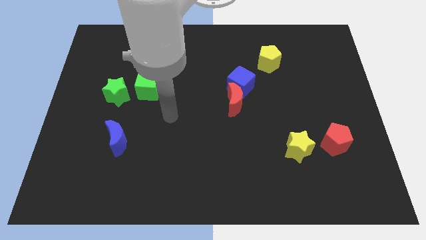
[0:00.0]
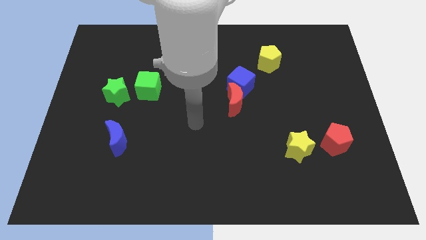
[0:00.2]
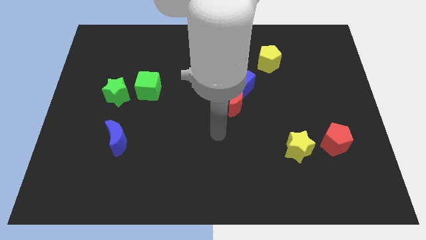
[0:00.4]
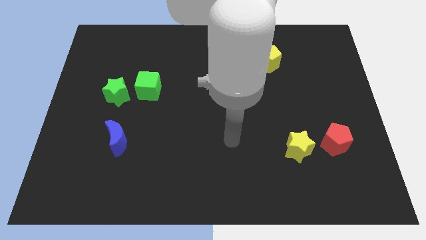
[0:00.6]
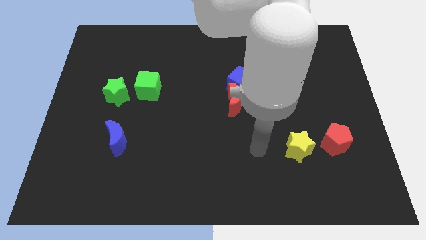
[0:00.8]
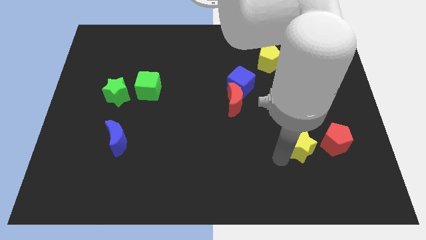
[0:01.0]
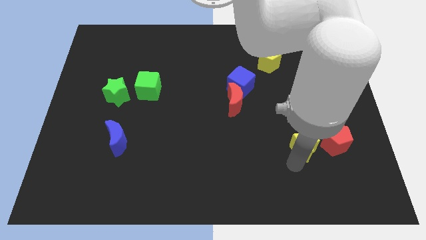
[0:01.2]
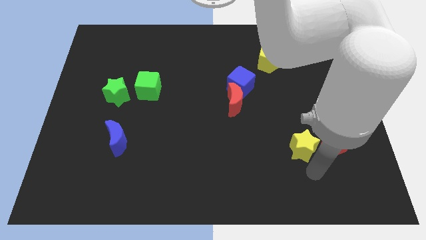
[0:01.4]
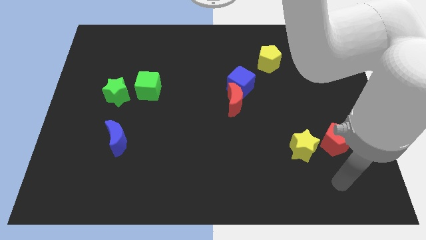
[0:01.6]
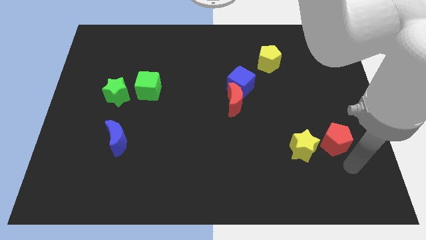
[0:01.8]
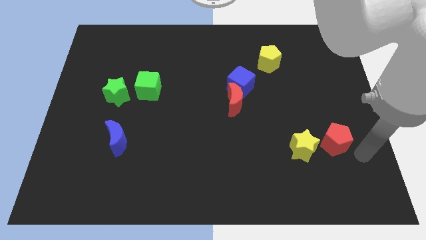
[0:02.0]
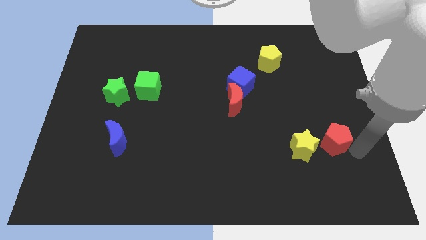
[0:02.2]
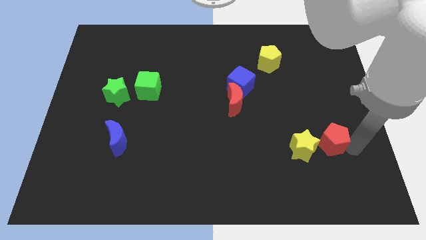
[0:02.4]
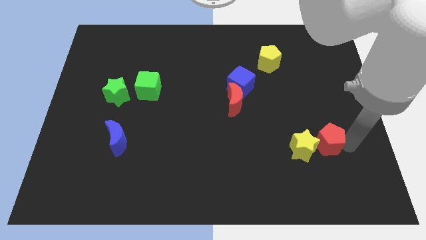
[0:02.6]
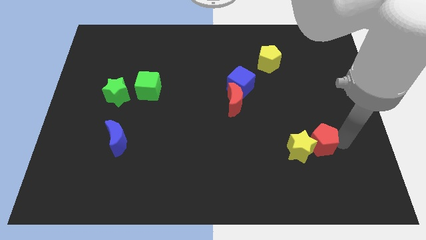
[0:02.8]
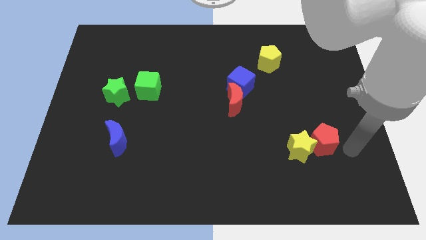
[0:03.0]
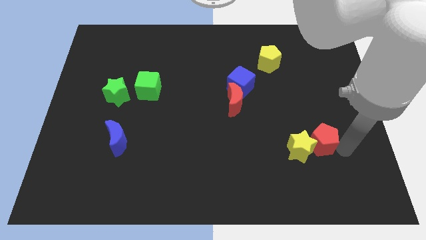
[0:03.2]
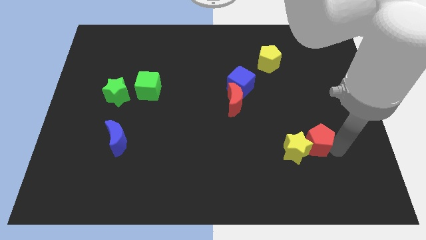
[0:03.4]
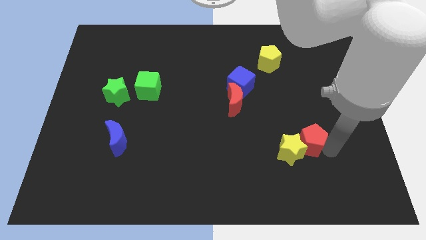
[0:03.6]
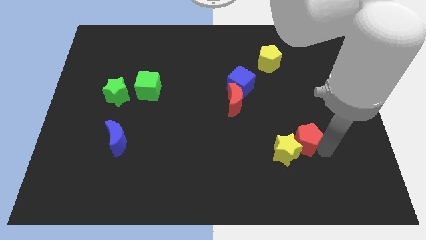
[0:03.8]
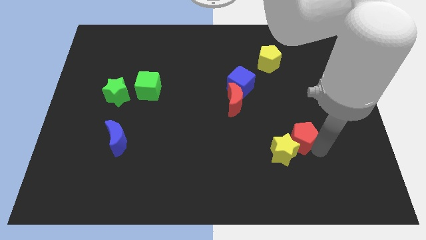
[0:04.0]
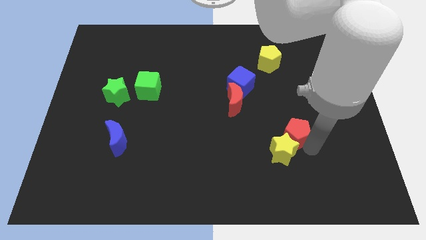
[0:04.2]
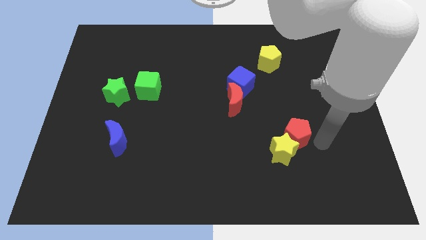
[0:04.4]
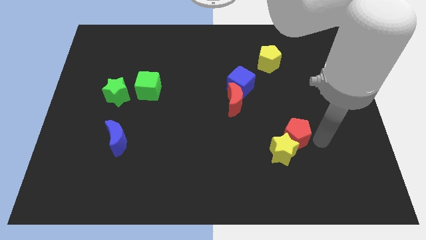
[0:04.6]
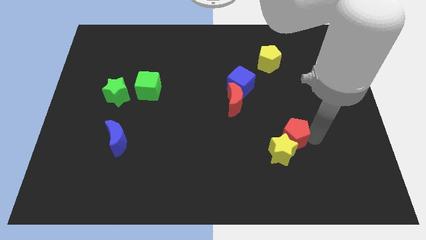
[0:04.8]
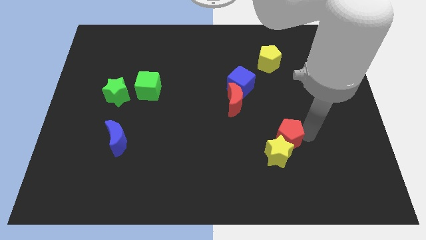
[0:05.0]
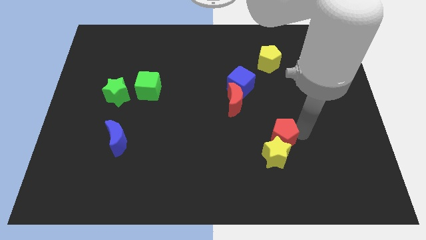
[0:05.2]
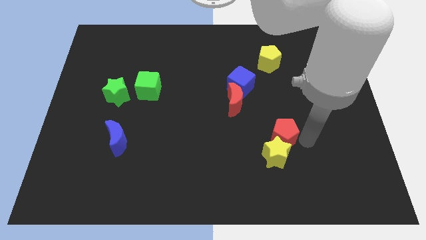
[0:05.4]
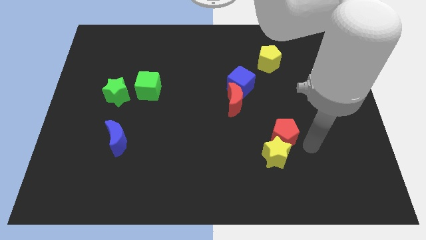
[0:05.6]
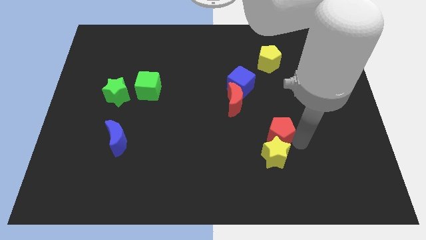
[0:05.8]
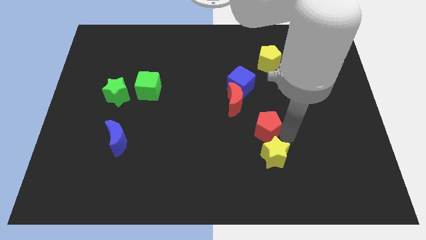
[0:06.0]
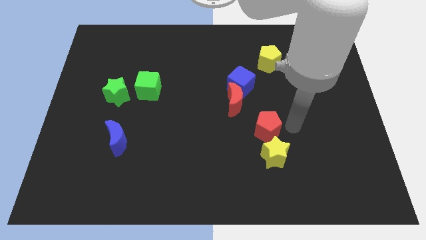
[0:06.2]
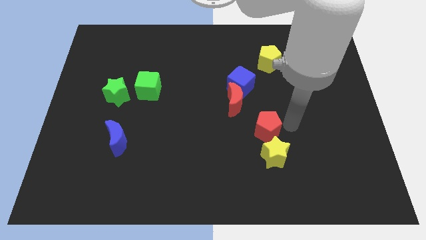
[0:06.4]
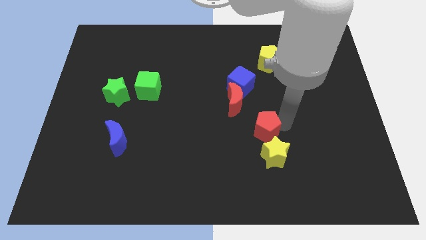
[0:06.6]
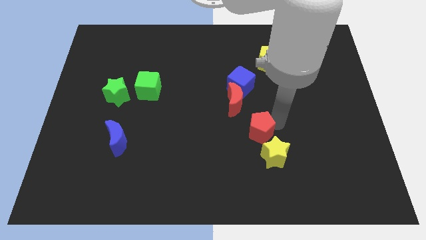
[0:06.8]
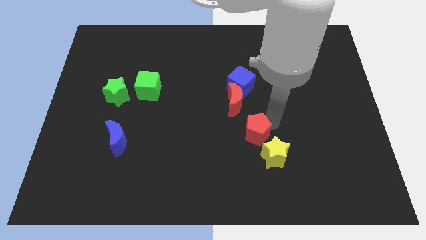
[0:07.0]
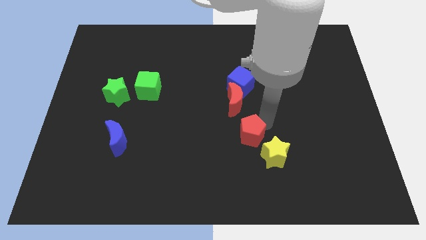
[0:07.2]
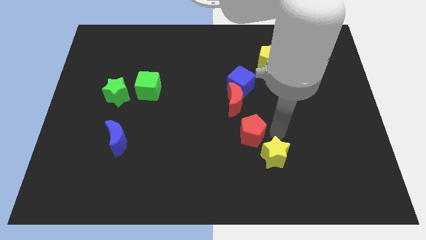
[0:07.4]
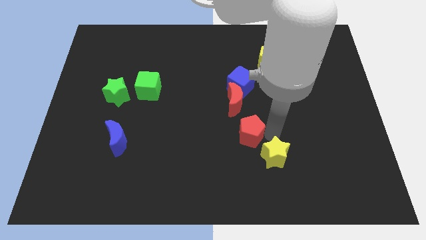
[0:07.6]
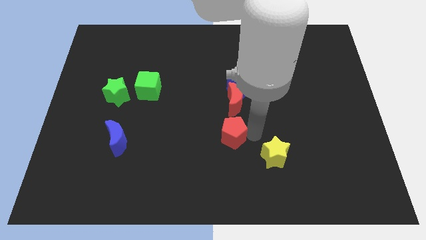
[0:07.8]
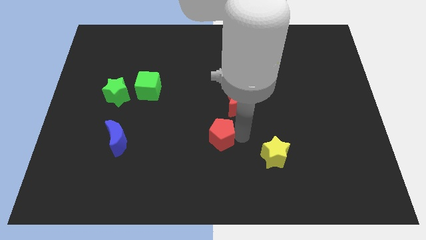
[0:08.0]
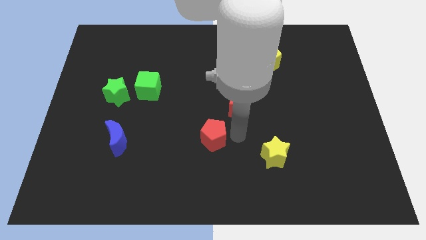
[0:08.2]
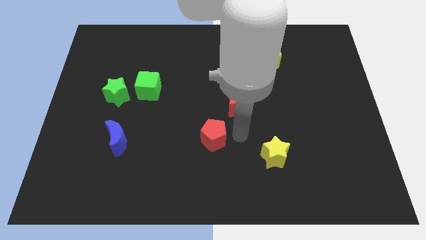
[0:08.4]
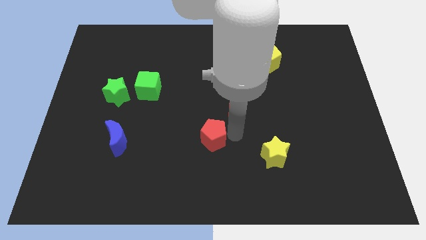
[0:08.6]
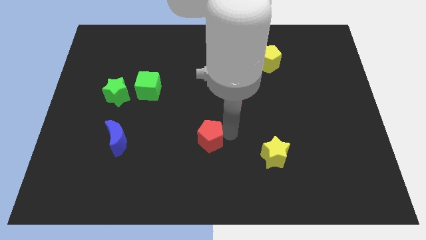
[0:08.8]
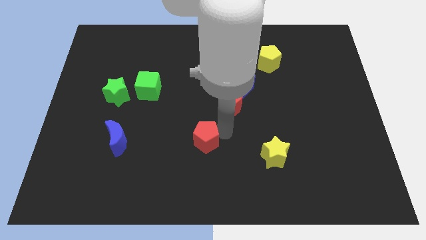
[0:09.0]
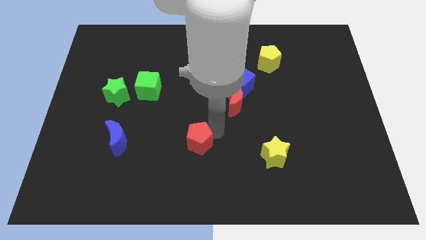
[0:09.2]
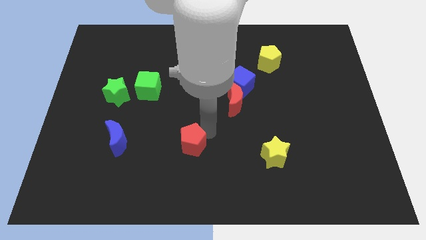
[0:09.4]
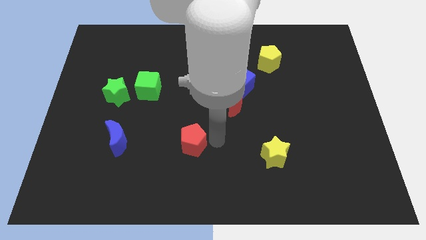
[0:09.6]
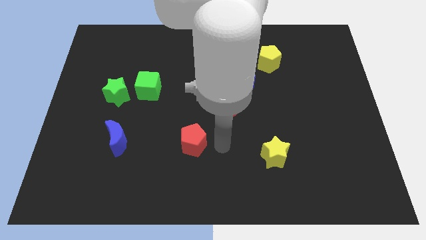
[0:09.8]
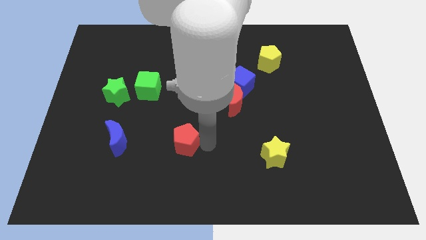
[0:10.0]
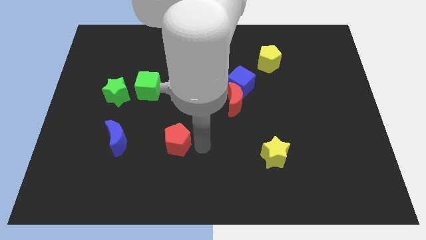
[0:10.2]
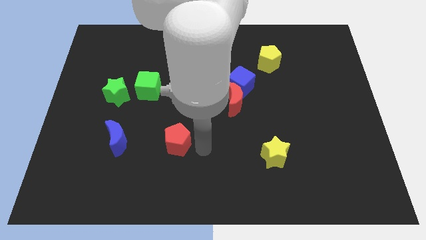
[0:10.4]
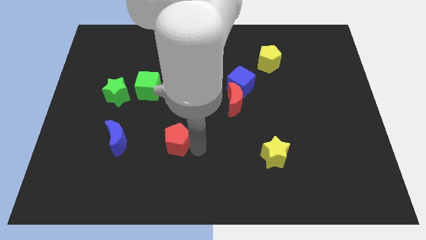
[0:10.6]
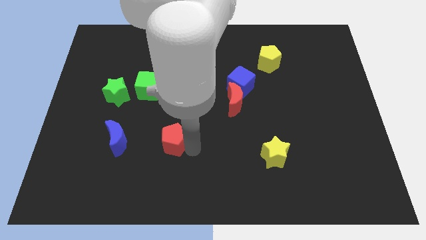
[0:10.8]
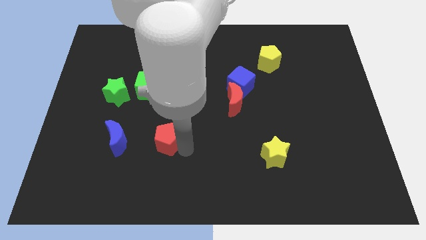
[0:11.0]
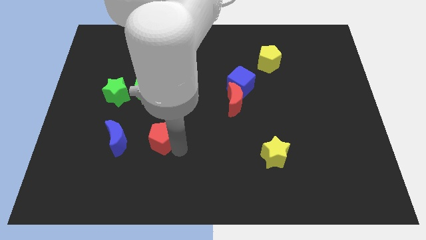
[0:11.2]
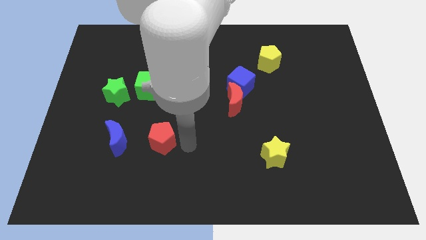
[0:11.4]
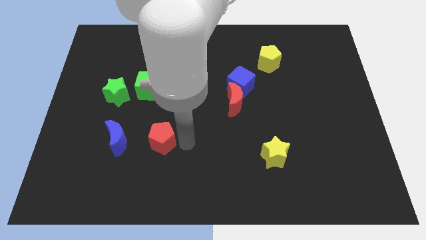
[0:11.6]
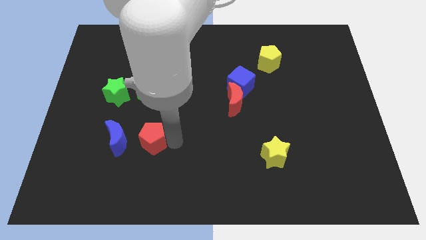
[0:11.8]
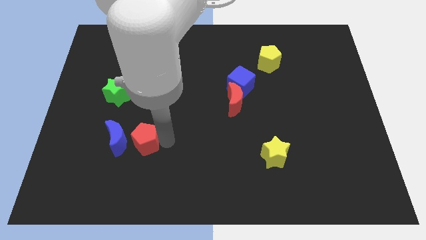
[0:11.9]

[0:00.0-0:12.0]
move the red pentagon close to the blue moon

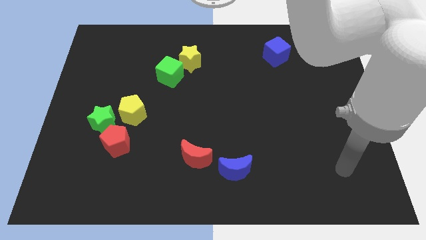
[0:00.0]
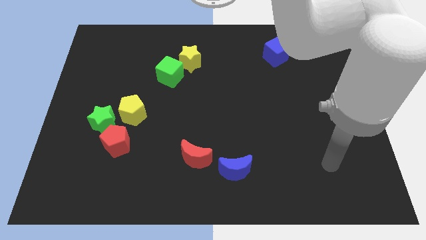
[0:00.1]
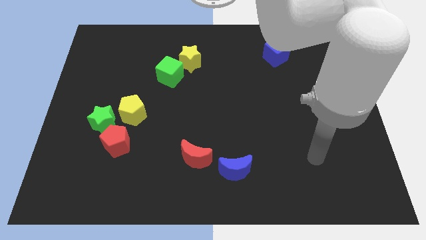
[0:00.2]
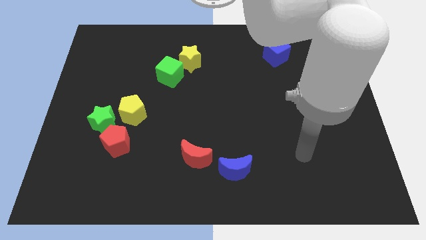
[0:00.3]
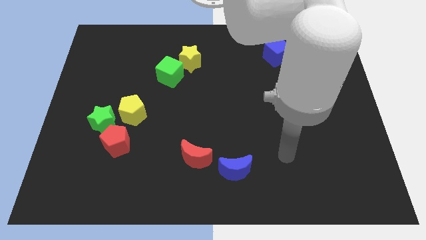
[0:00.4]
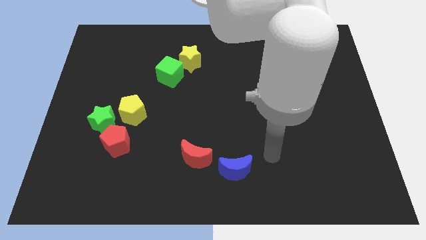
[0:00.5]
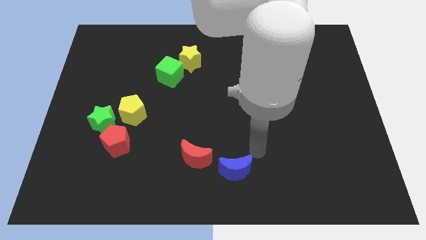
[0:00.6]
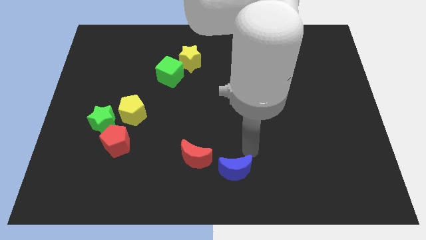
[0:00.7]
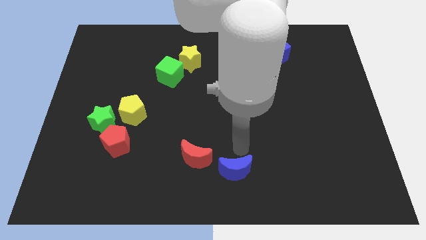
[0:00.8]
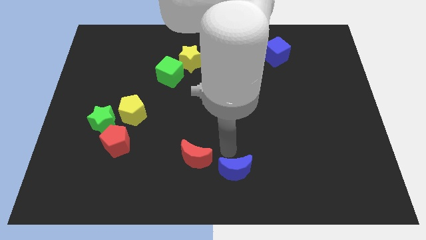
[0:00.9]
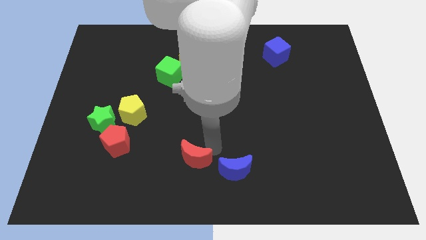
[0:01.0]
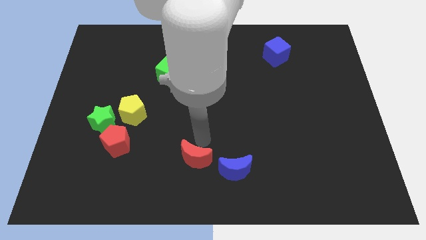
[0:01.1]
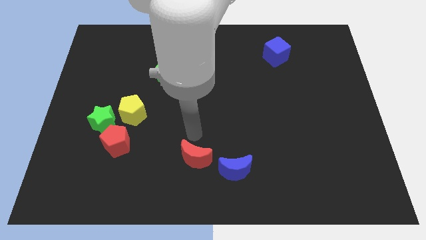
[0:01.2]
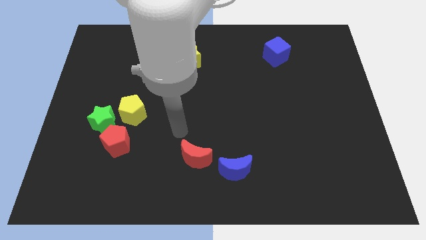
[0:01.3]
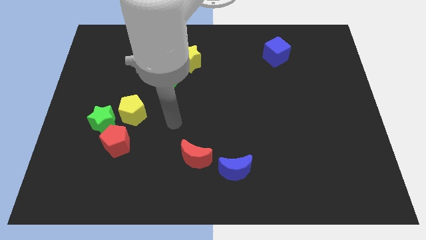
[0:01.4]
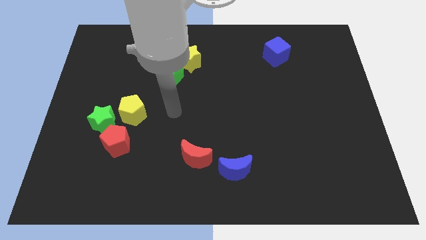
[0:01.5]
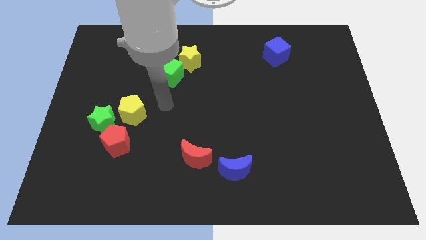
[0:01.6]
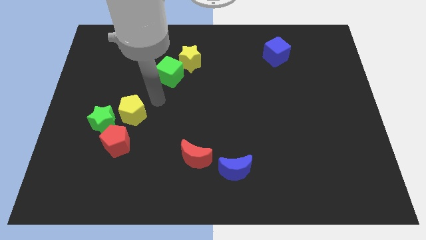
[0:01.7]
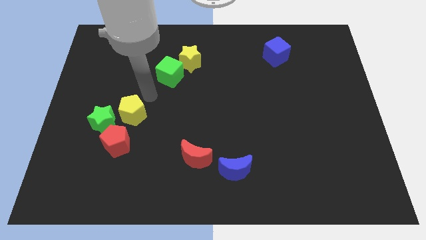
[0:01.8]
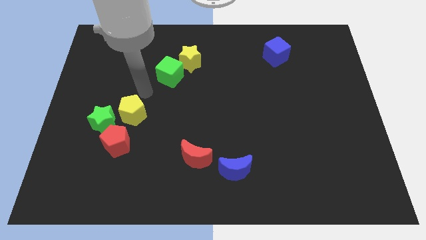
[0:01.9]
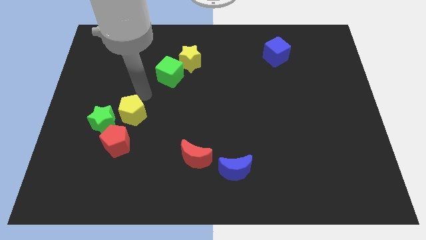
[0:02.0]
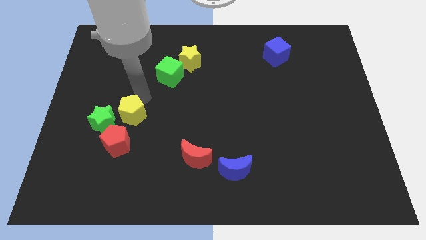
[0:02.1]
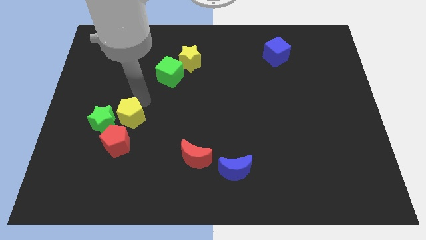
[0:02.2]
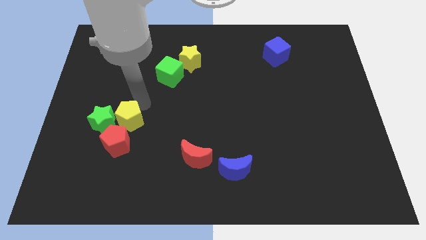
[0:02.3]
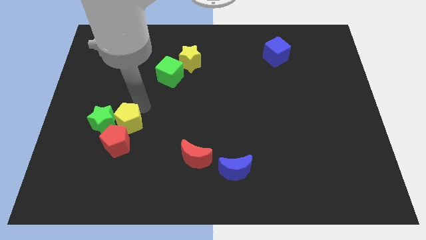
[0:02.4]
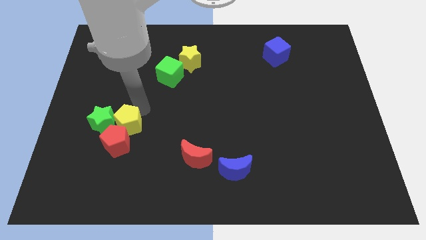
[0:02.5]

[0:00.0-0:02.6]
slide the yellow pentagon to the red pentagon
